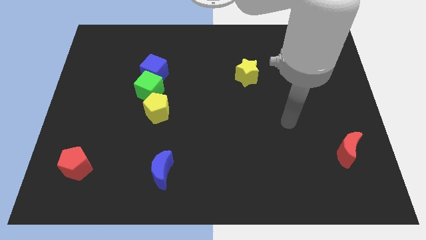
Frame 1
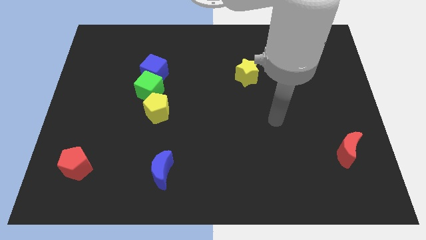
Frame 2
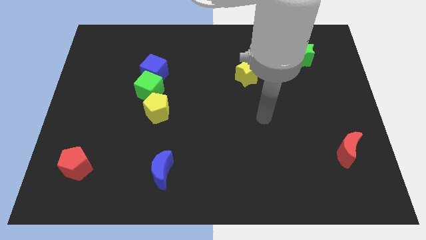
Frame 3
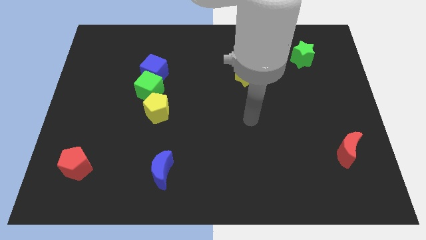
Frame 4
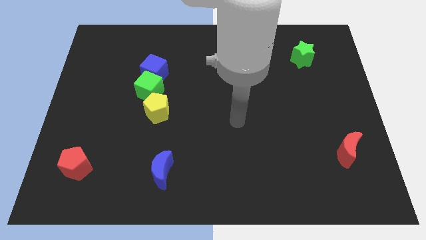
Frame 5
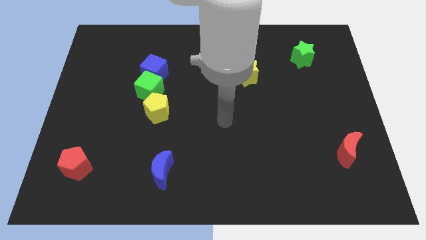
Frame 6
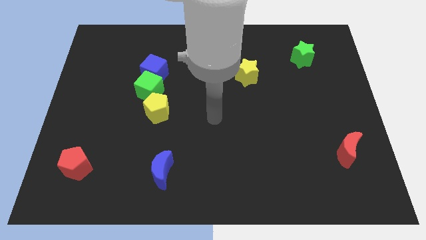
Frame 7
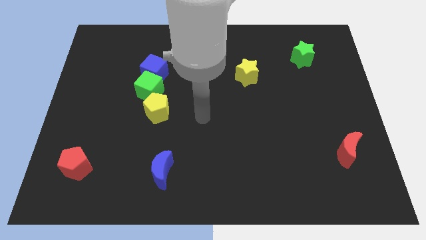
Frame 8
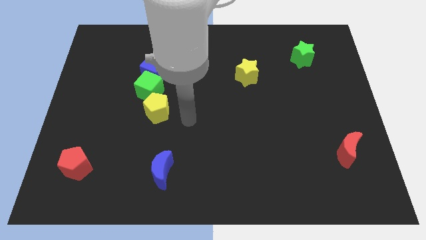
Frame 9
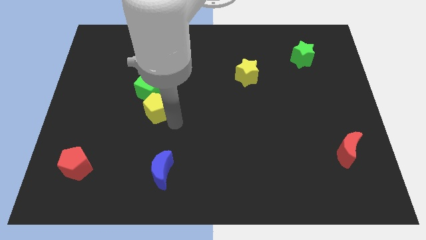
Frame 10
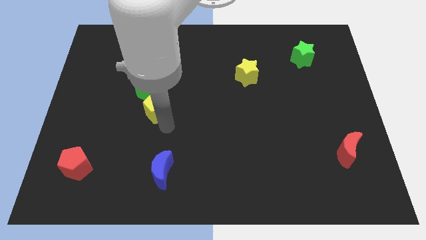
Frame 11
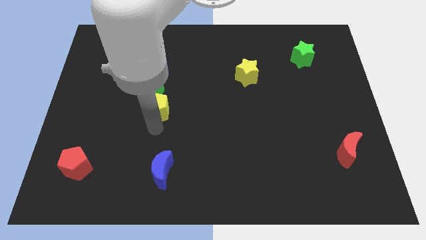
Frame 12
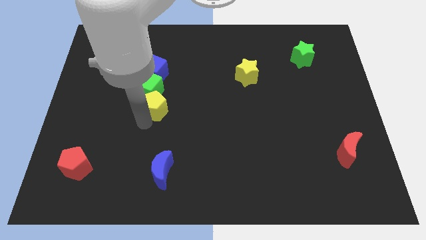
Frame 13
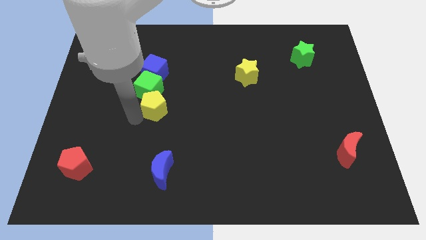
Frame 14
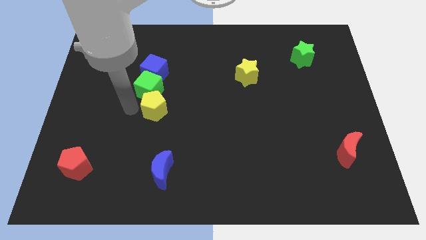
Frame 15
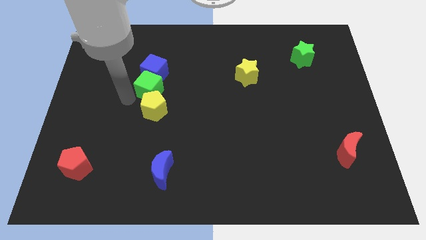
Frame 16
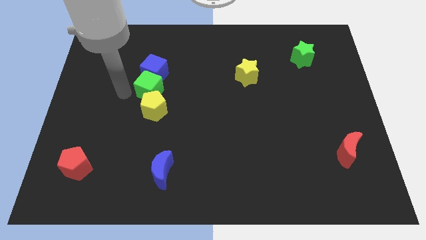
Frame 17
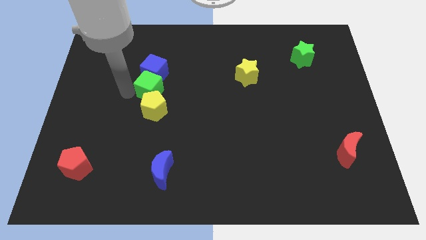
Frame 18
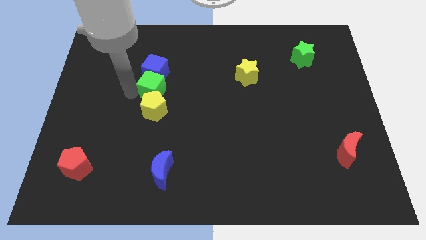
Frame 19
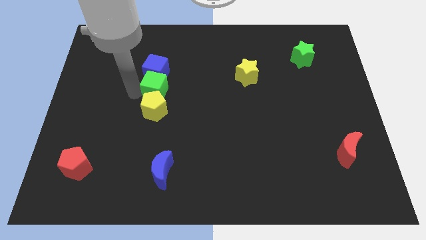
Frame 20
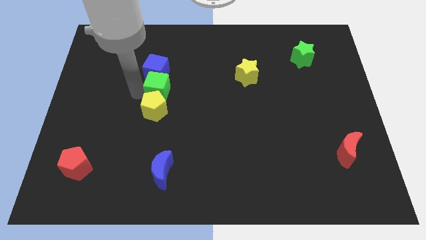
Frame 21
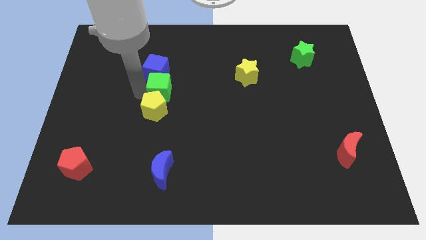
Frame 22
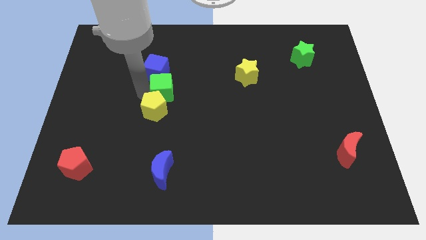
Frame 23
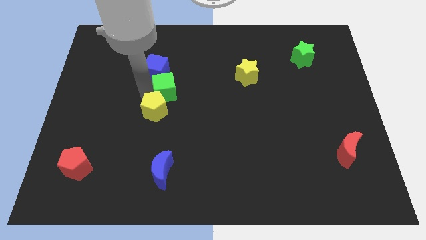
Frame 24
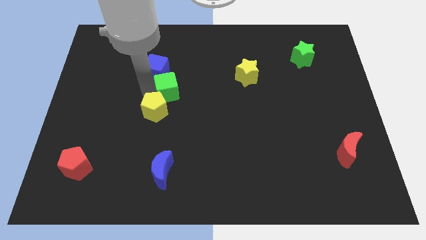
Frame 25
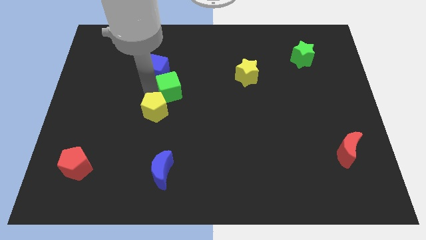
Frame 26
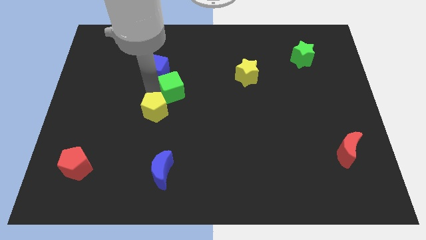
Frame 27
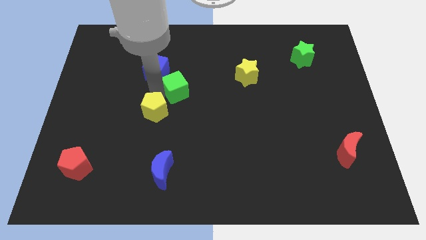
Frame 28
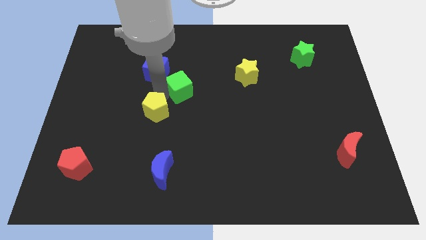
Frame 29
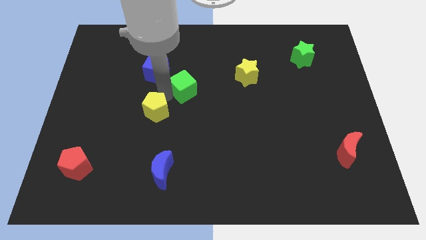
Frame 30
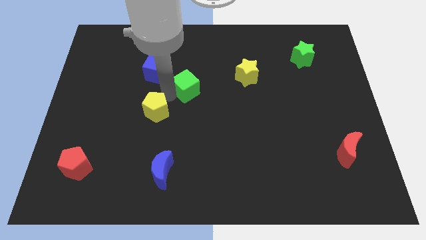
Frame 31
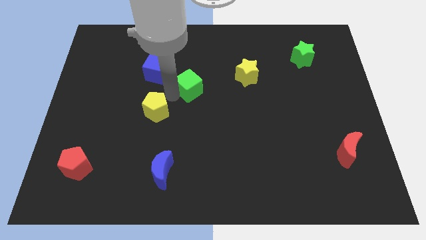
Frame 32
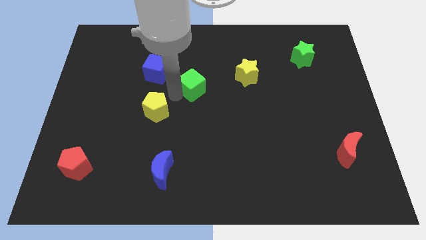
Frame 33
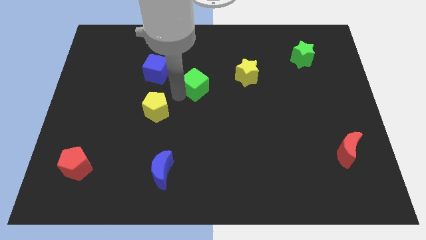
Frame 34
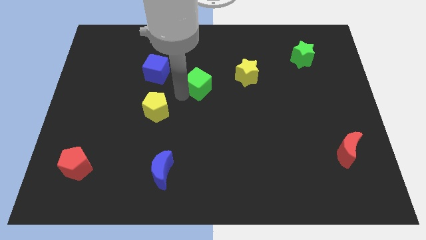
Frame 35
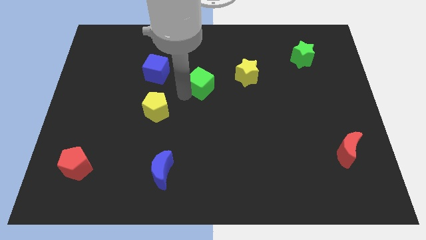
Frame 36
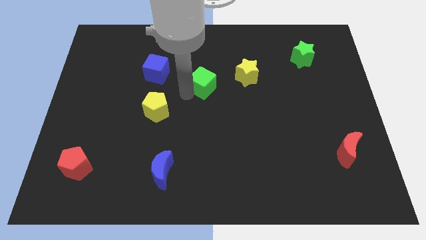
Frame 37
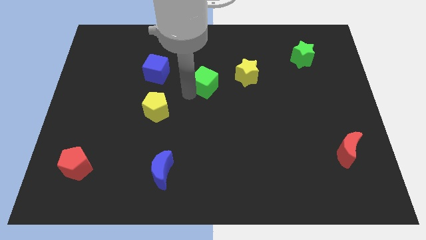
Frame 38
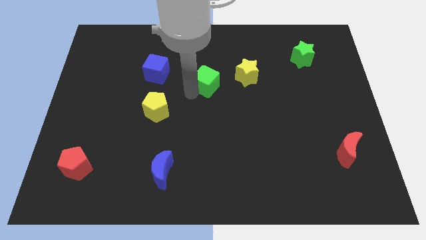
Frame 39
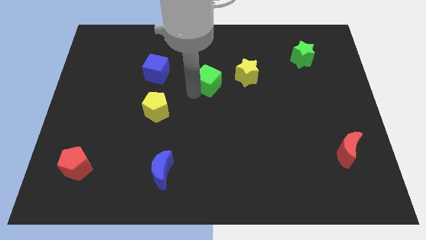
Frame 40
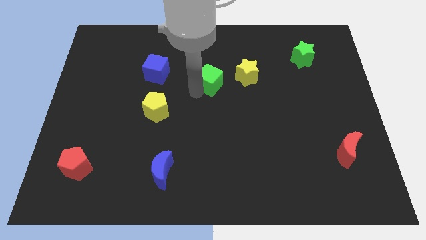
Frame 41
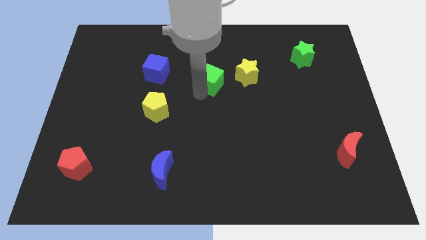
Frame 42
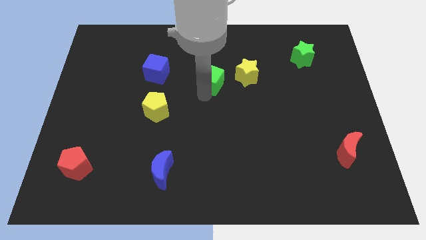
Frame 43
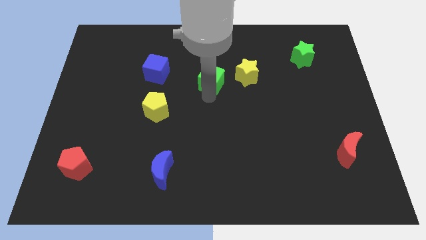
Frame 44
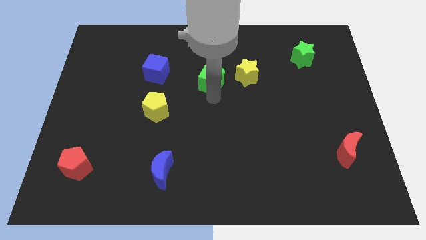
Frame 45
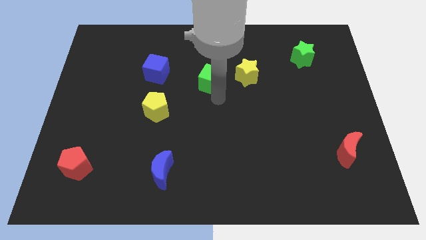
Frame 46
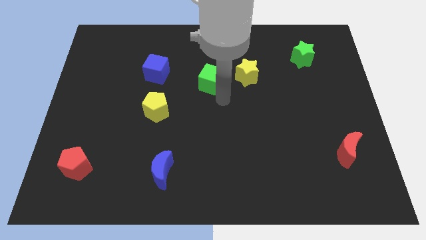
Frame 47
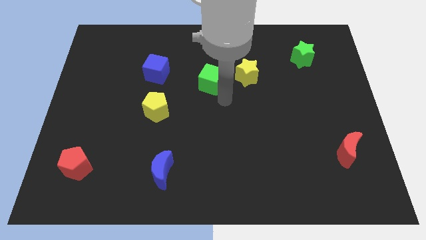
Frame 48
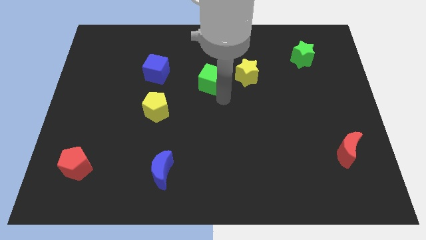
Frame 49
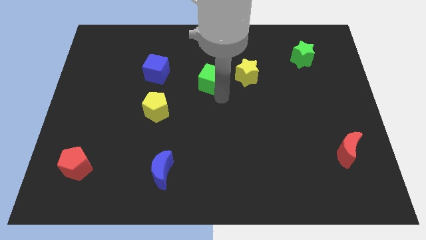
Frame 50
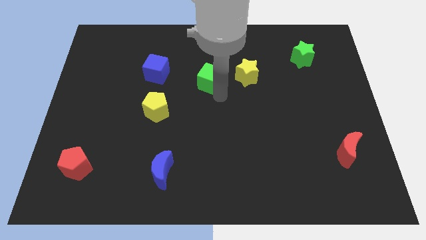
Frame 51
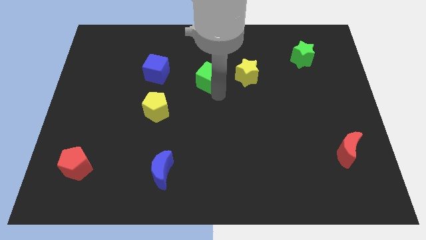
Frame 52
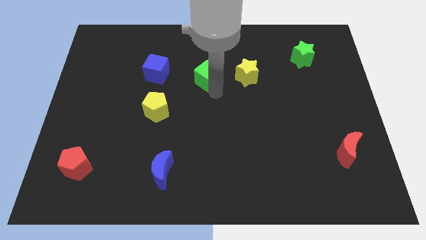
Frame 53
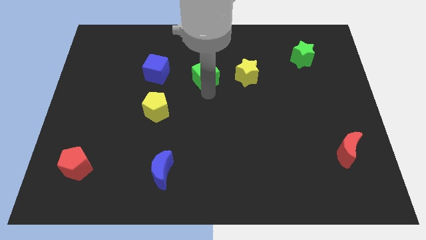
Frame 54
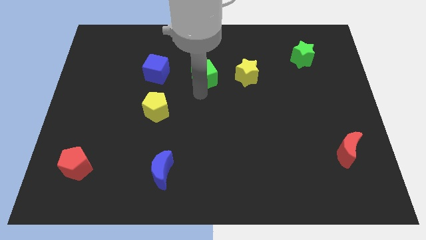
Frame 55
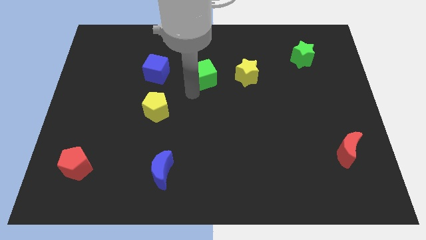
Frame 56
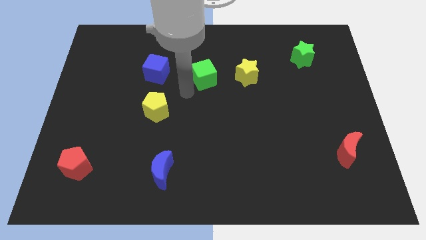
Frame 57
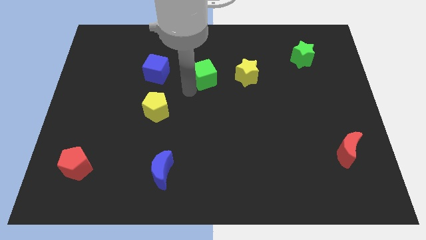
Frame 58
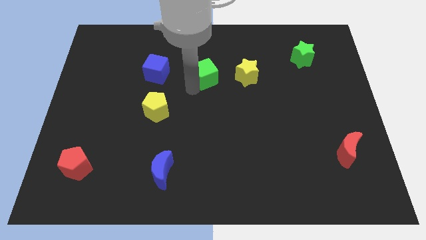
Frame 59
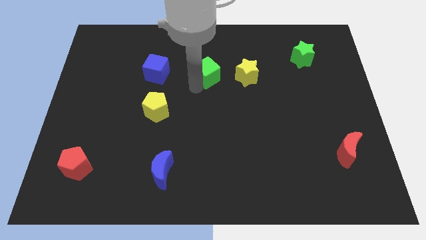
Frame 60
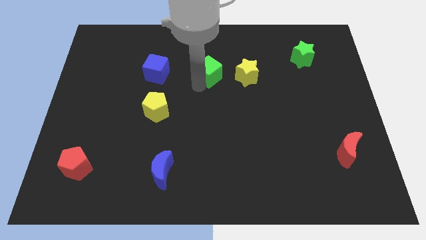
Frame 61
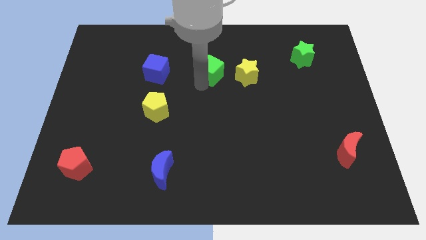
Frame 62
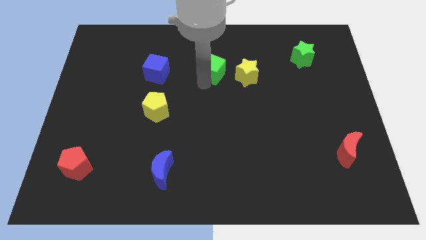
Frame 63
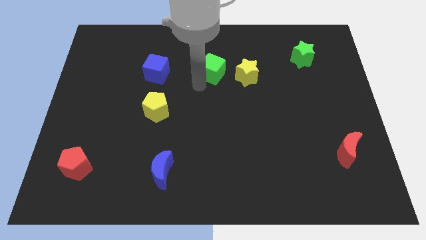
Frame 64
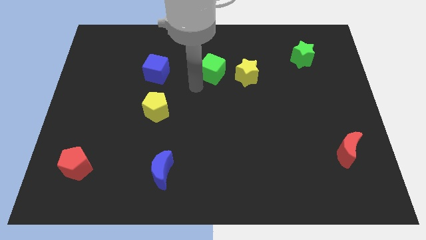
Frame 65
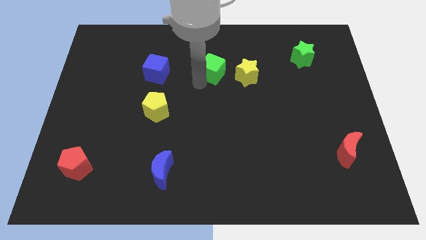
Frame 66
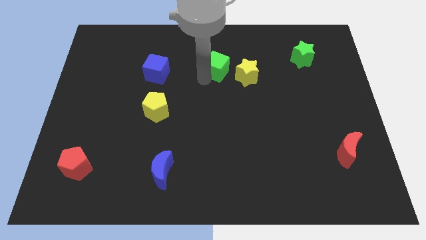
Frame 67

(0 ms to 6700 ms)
put the green cube to the top left side of the yellow star

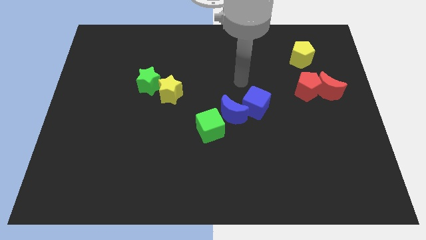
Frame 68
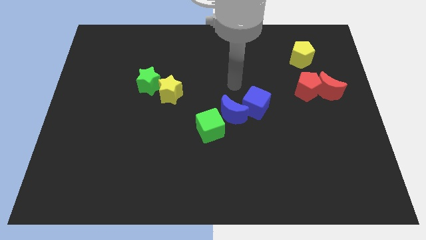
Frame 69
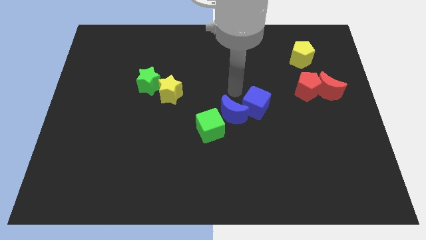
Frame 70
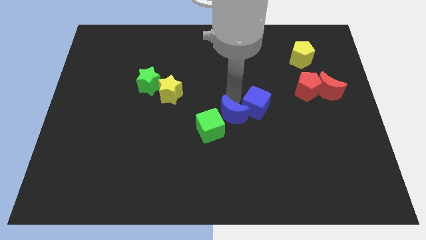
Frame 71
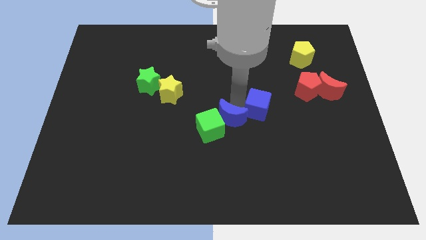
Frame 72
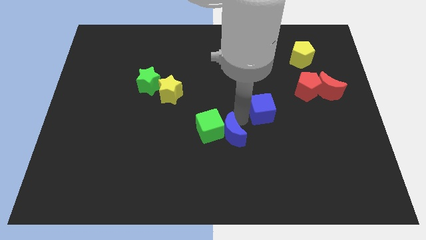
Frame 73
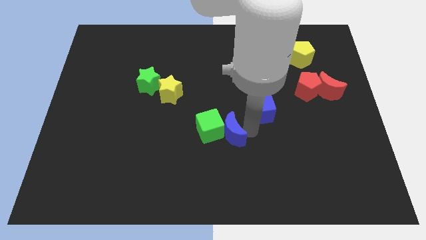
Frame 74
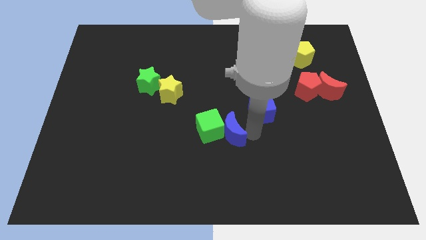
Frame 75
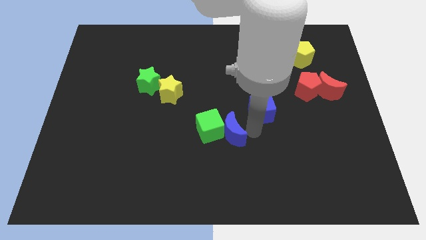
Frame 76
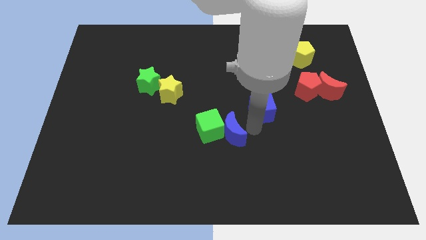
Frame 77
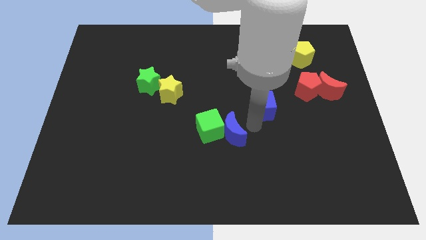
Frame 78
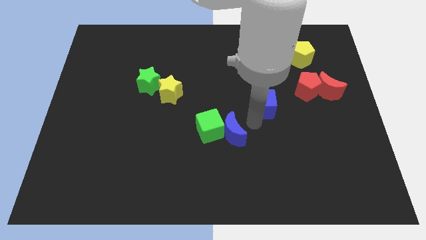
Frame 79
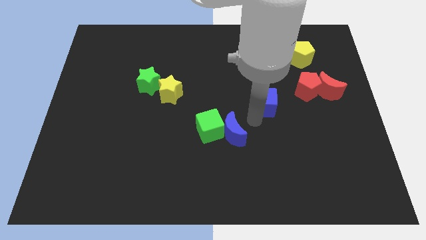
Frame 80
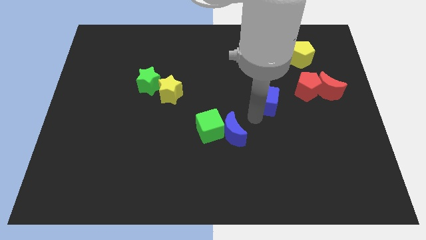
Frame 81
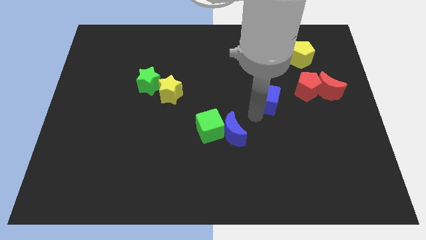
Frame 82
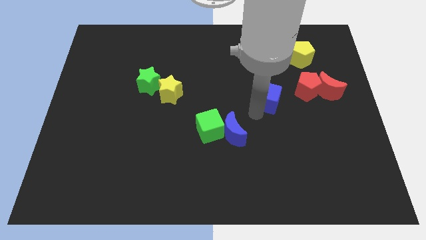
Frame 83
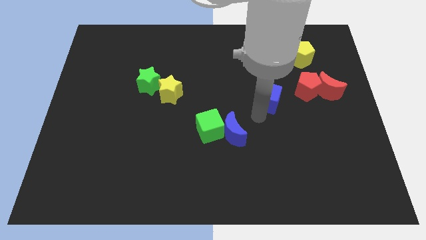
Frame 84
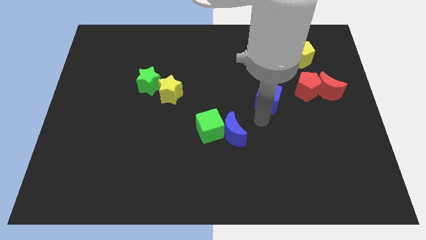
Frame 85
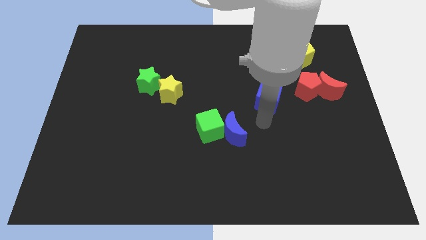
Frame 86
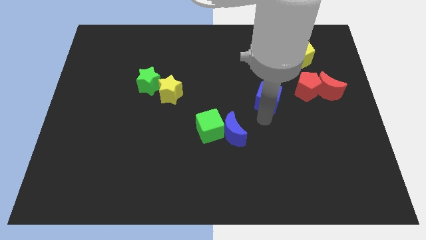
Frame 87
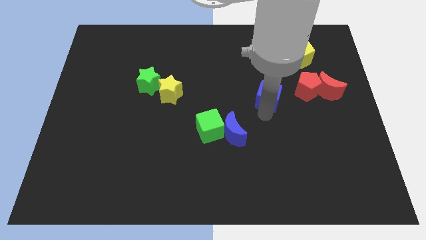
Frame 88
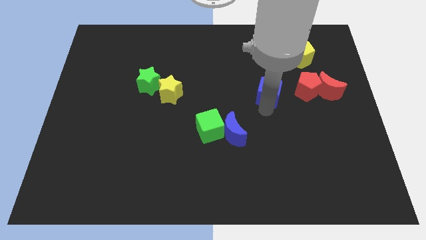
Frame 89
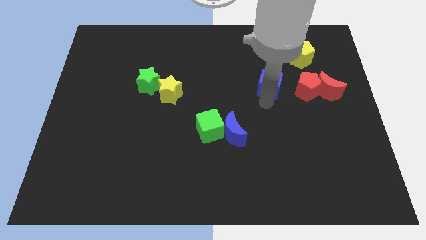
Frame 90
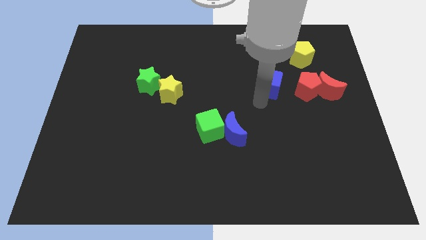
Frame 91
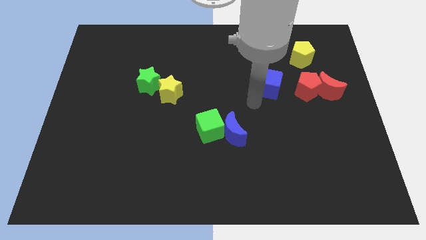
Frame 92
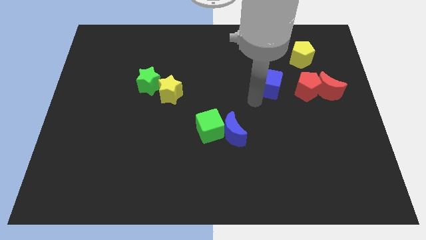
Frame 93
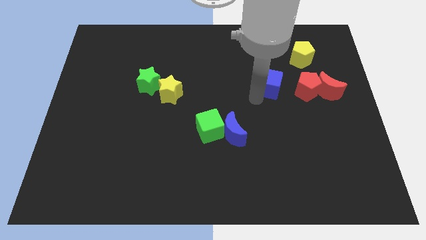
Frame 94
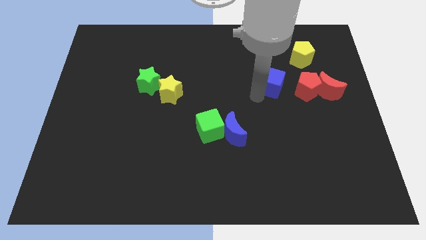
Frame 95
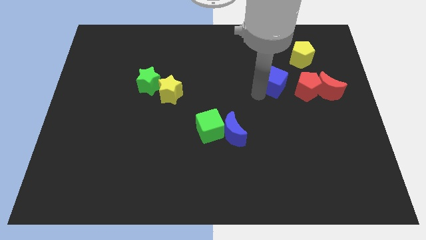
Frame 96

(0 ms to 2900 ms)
put the blue cube diagonally up and to the left of the red pentagon
